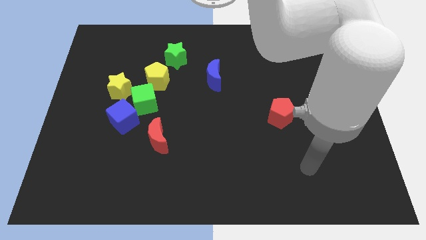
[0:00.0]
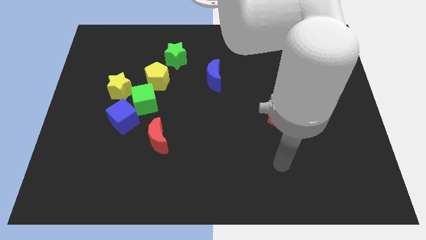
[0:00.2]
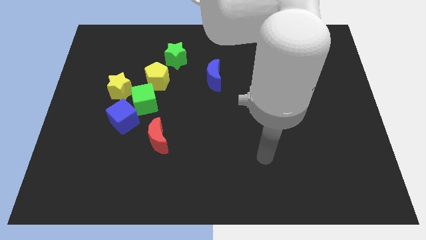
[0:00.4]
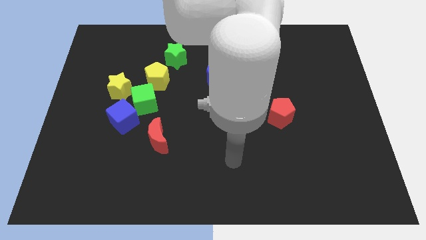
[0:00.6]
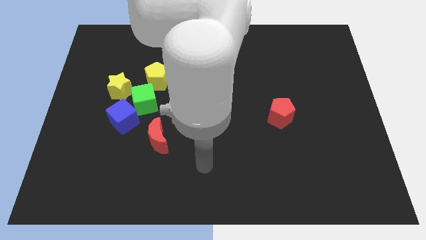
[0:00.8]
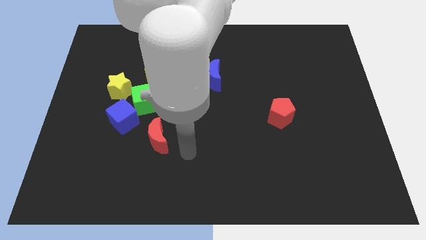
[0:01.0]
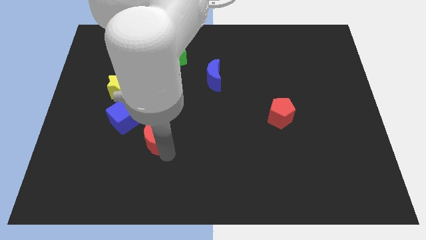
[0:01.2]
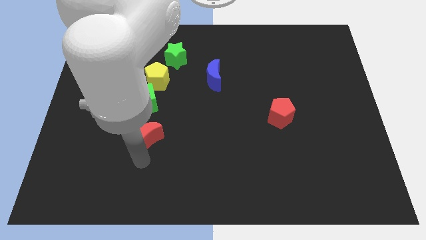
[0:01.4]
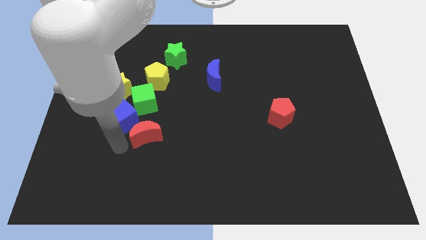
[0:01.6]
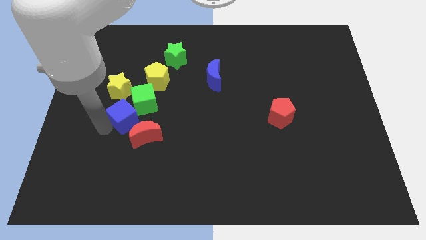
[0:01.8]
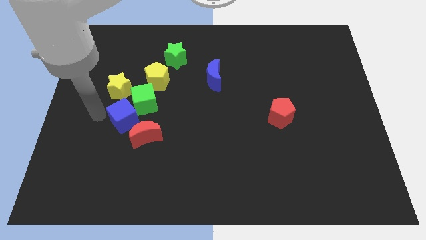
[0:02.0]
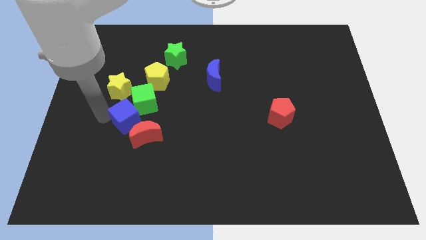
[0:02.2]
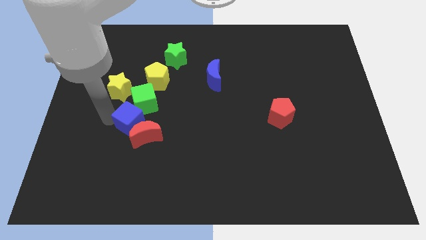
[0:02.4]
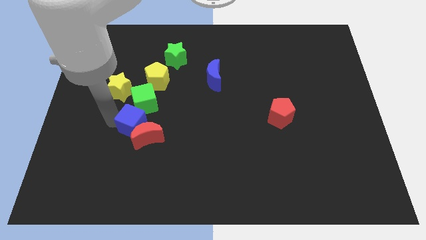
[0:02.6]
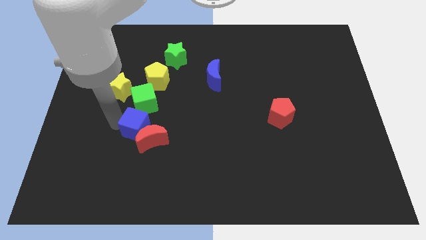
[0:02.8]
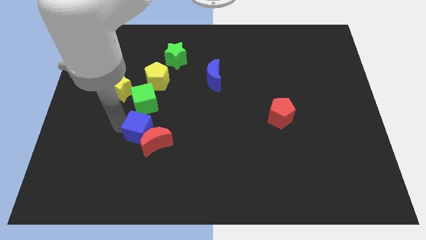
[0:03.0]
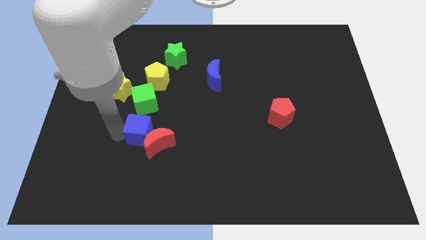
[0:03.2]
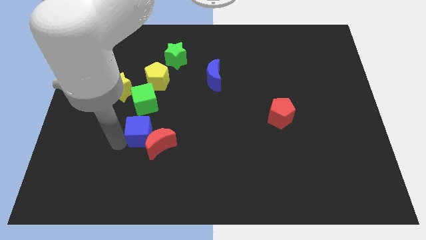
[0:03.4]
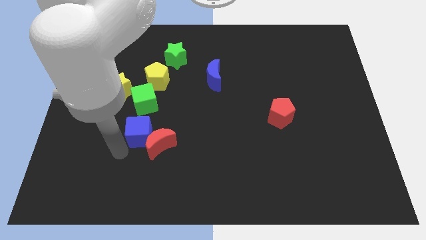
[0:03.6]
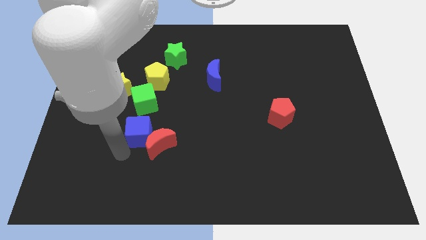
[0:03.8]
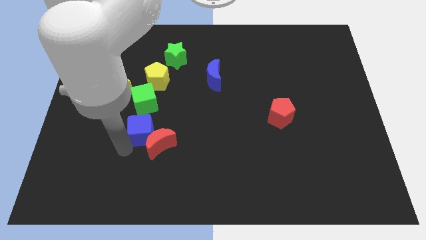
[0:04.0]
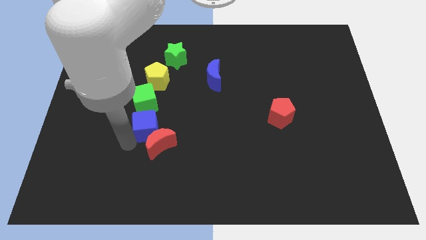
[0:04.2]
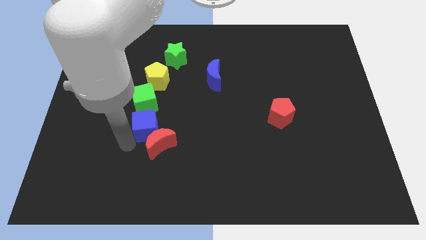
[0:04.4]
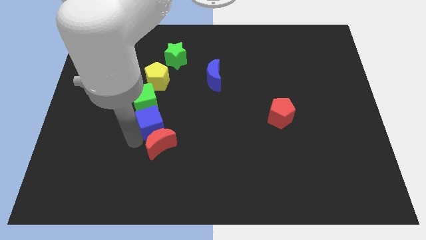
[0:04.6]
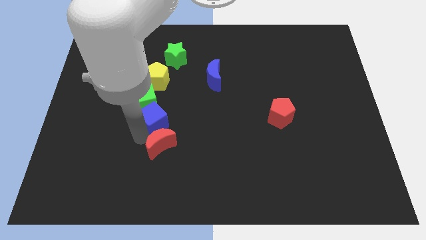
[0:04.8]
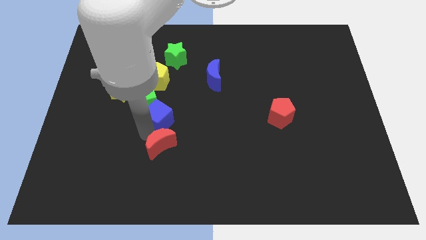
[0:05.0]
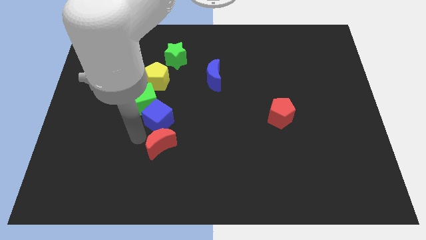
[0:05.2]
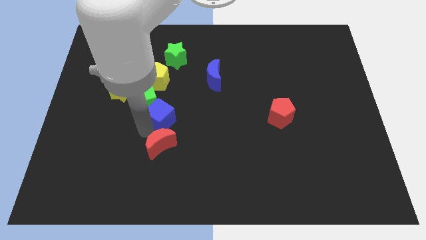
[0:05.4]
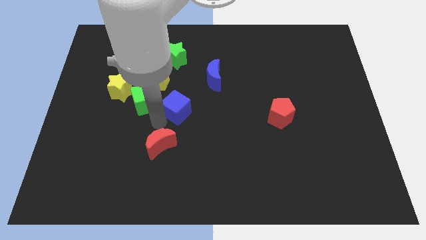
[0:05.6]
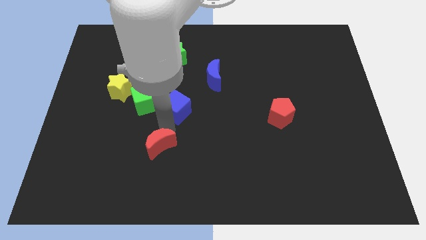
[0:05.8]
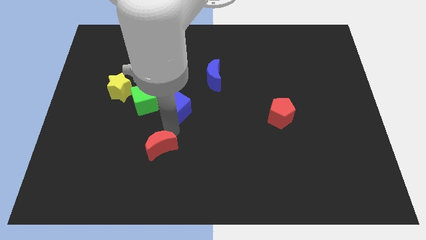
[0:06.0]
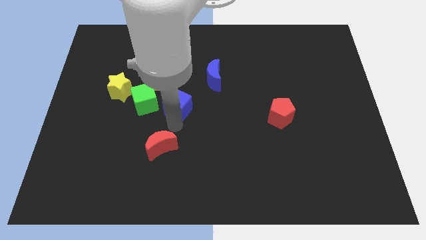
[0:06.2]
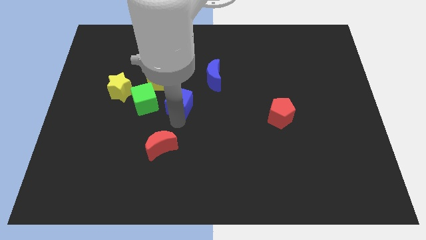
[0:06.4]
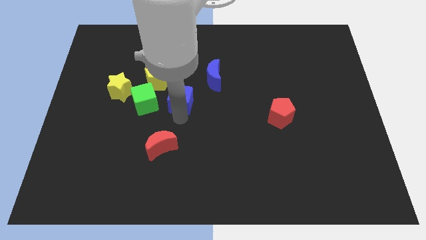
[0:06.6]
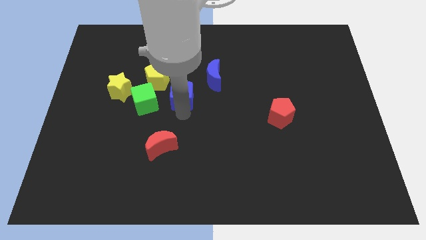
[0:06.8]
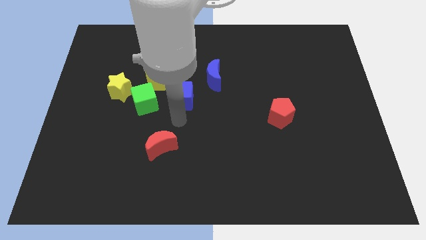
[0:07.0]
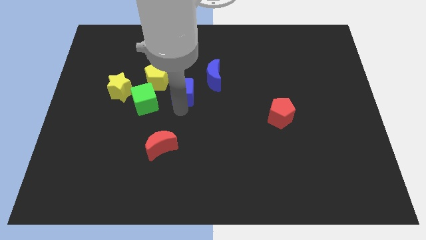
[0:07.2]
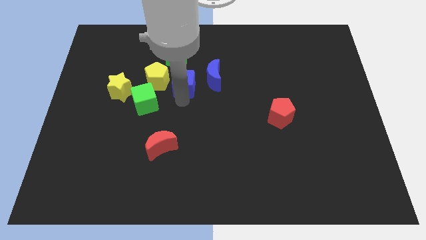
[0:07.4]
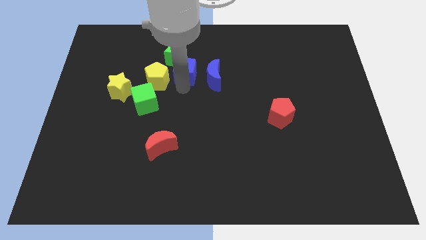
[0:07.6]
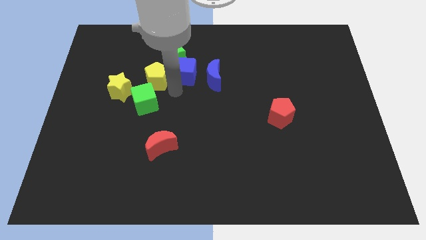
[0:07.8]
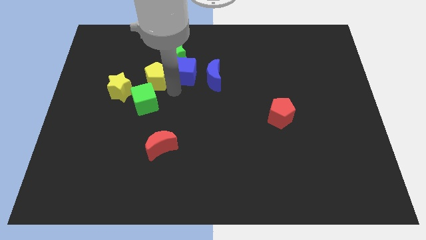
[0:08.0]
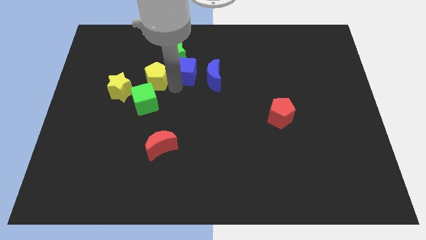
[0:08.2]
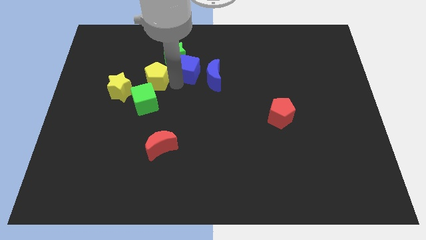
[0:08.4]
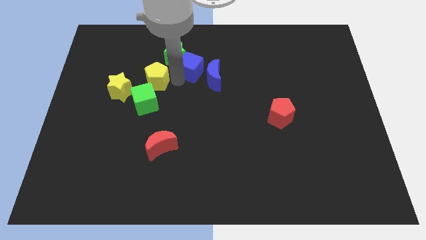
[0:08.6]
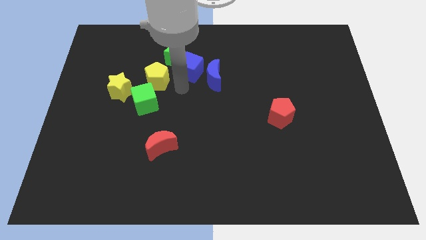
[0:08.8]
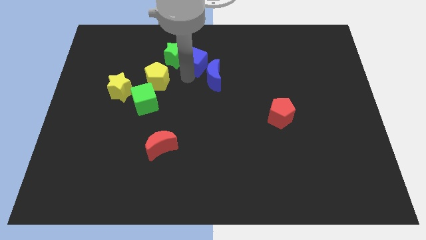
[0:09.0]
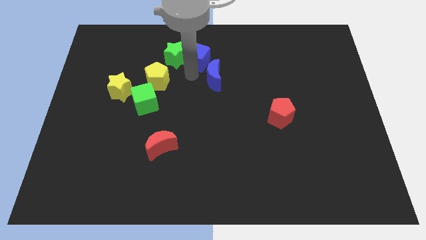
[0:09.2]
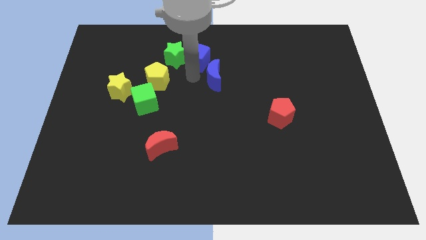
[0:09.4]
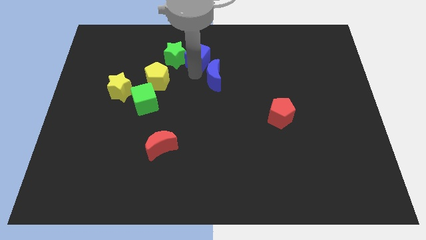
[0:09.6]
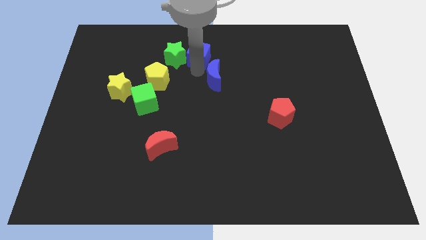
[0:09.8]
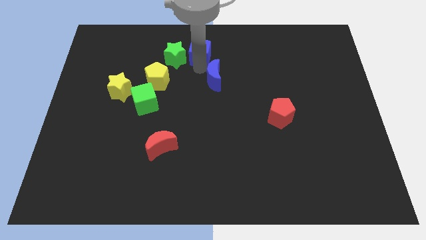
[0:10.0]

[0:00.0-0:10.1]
push the blue cube to the top side

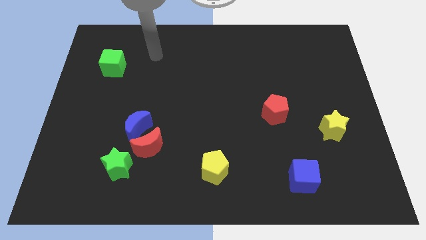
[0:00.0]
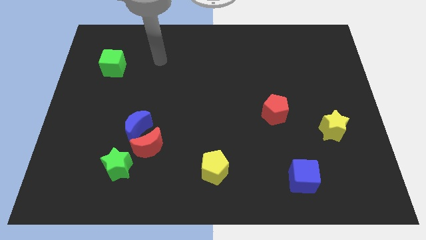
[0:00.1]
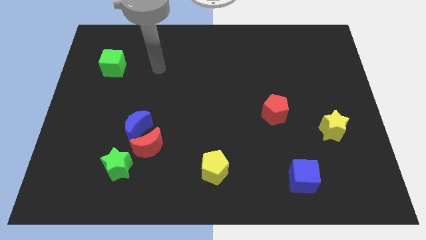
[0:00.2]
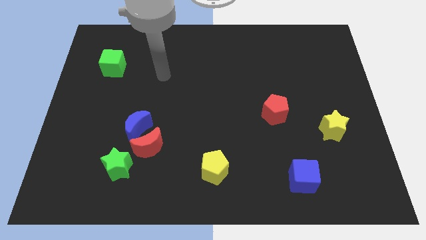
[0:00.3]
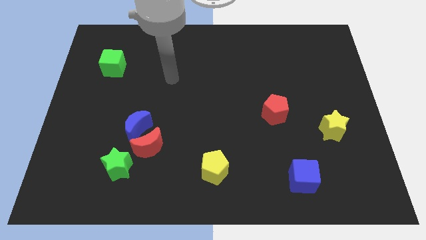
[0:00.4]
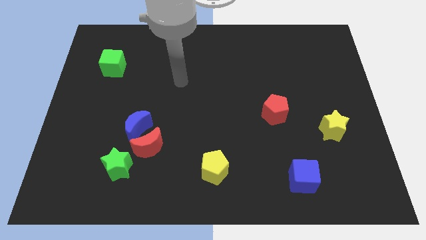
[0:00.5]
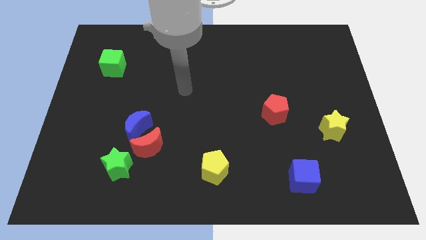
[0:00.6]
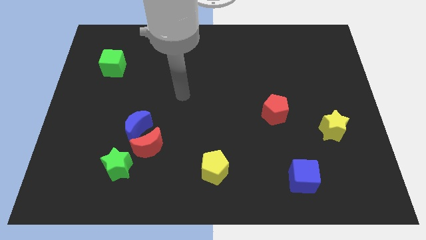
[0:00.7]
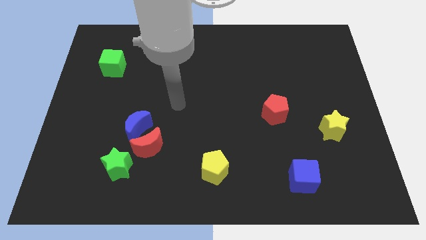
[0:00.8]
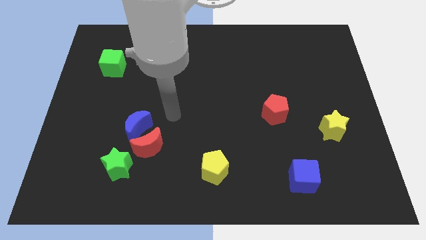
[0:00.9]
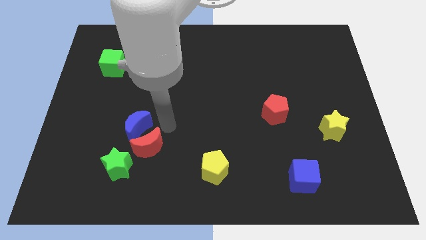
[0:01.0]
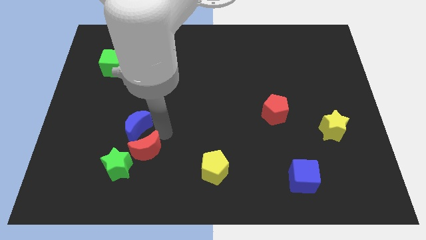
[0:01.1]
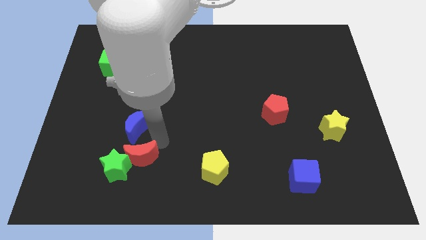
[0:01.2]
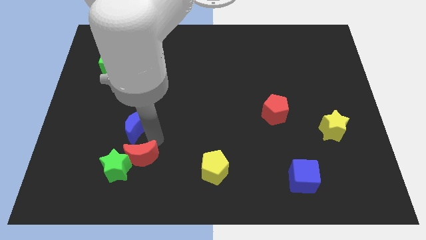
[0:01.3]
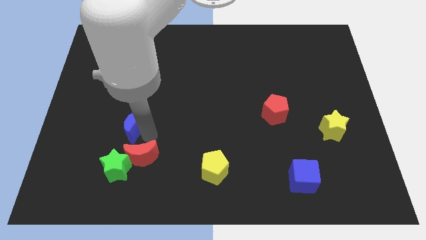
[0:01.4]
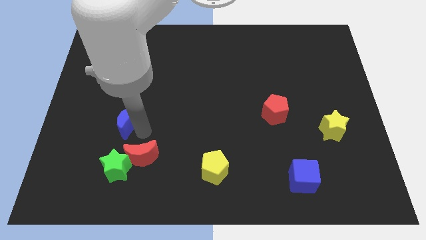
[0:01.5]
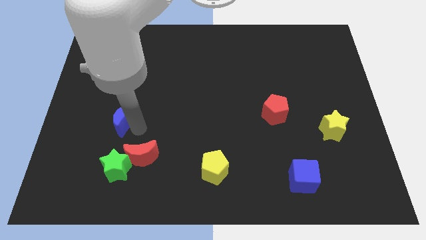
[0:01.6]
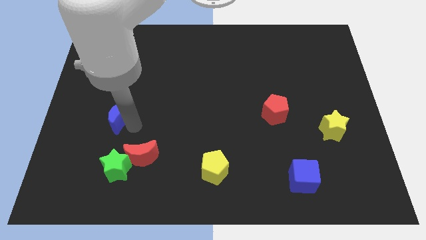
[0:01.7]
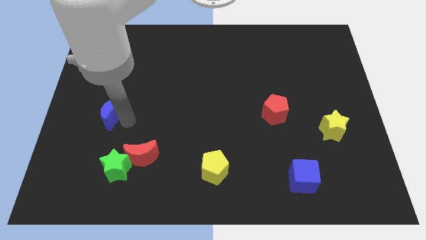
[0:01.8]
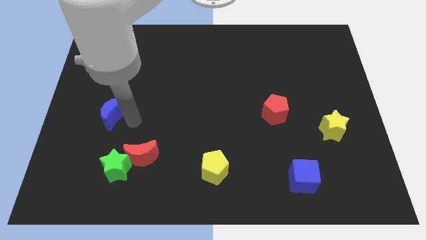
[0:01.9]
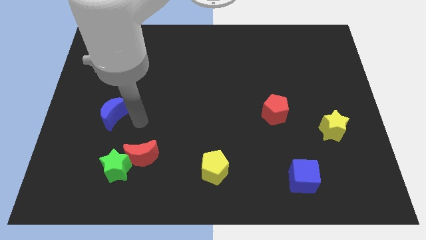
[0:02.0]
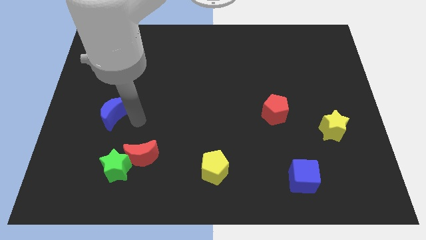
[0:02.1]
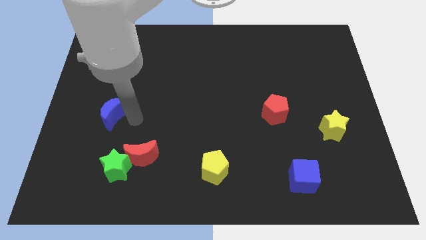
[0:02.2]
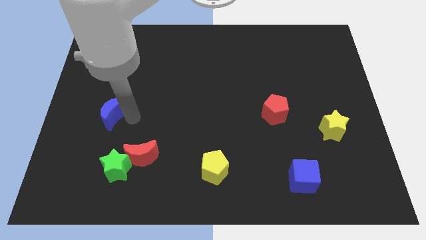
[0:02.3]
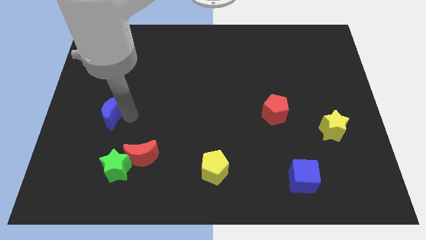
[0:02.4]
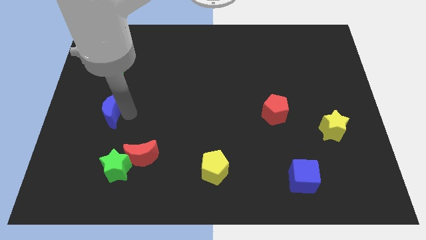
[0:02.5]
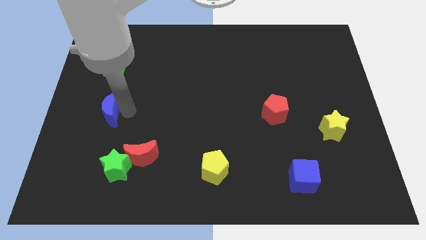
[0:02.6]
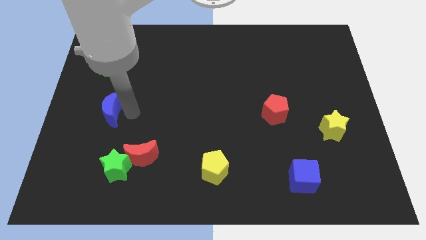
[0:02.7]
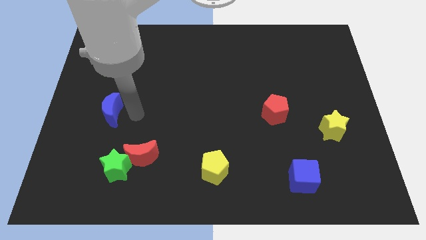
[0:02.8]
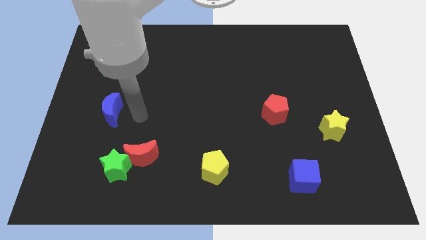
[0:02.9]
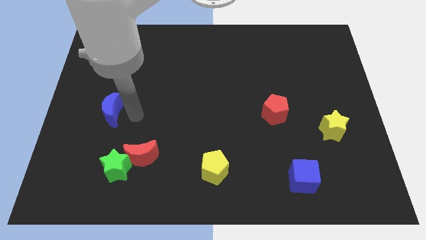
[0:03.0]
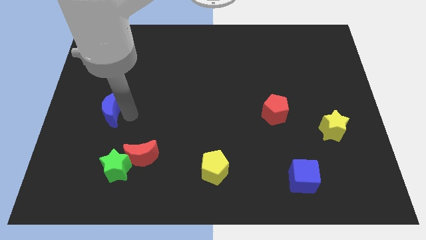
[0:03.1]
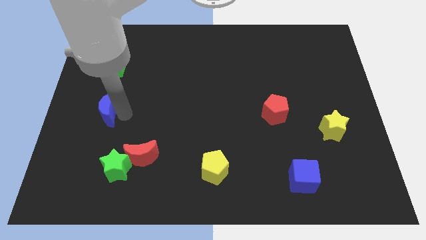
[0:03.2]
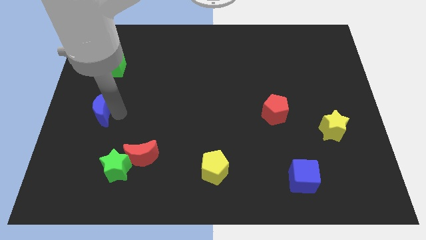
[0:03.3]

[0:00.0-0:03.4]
slide the blue moon to the left side of the board
